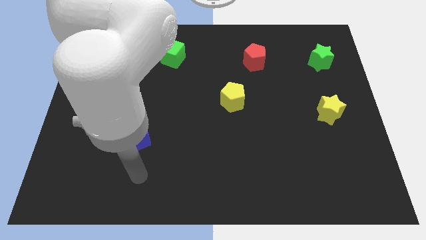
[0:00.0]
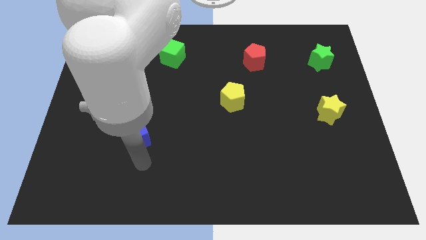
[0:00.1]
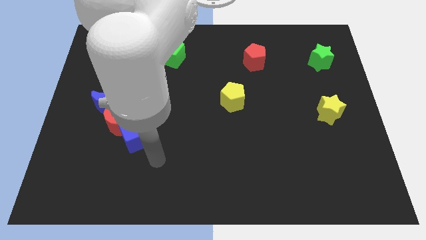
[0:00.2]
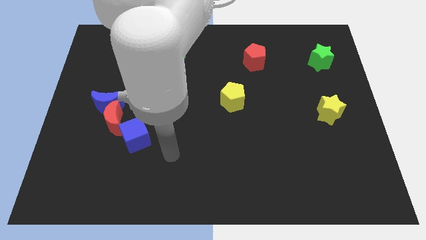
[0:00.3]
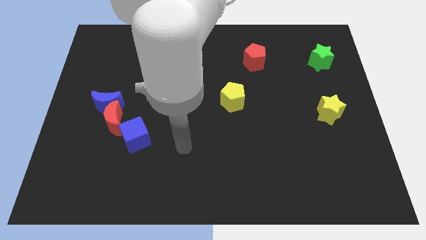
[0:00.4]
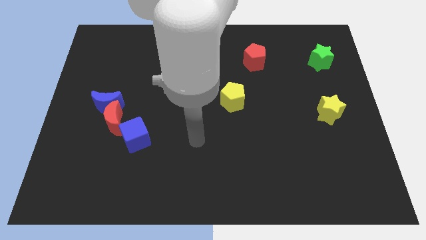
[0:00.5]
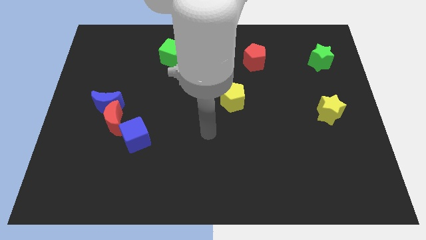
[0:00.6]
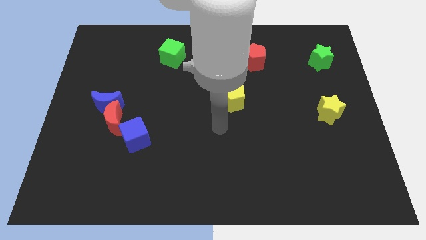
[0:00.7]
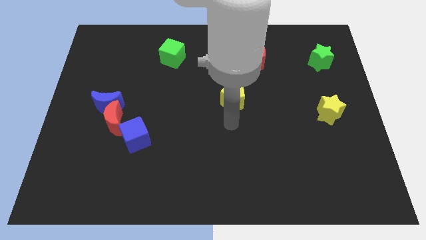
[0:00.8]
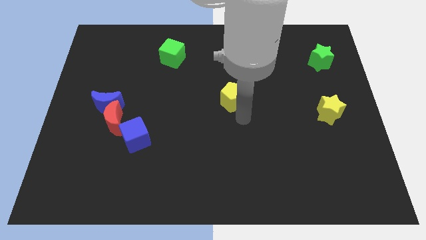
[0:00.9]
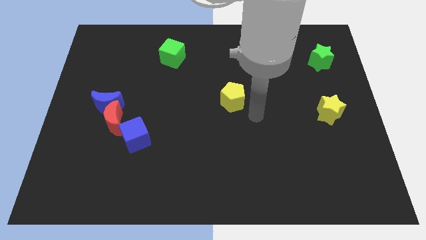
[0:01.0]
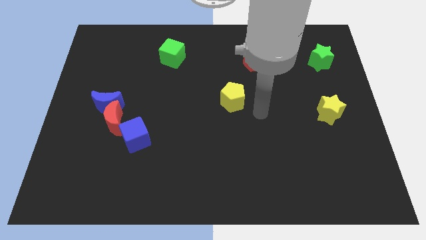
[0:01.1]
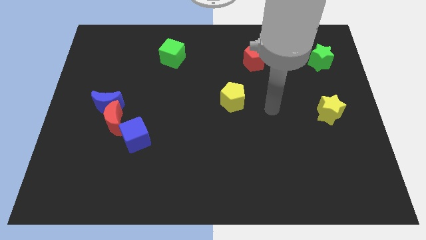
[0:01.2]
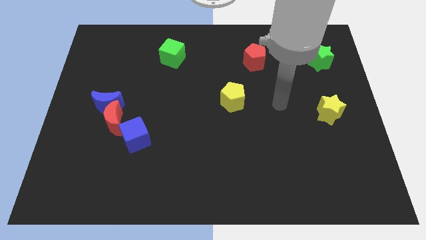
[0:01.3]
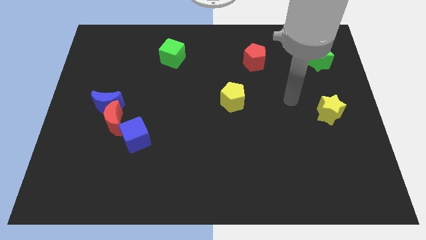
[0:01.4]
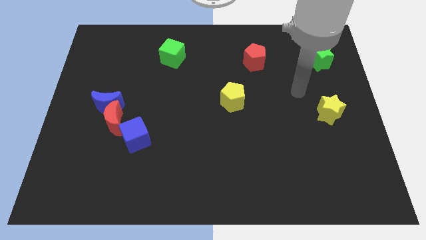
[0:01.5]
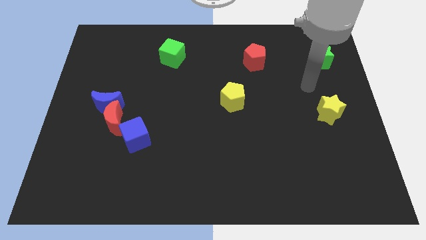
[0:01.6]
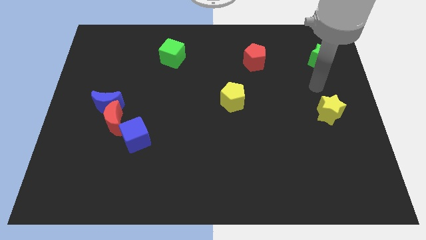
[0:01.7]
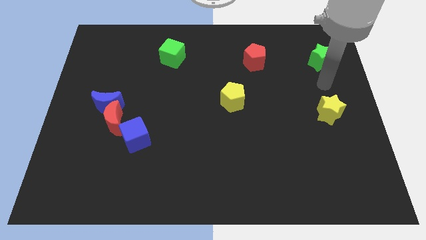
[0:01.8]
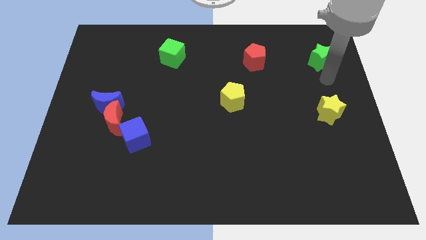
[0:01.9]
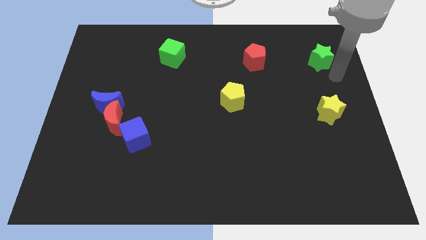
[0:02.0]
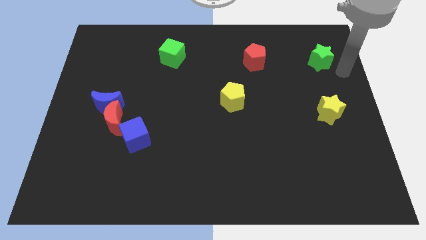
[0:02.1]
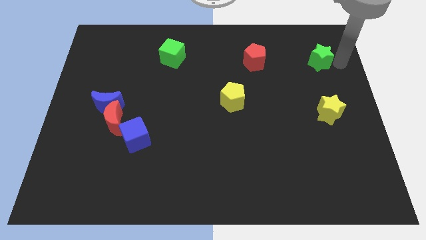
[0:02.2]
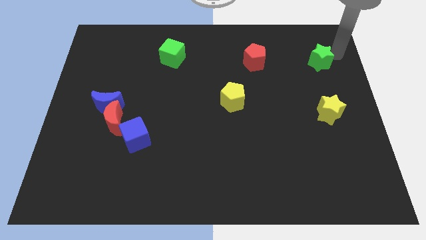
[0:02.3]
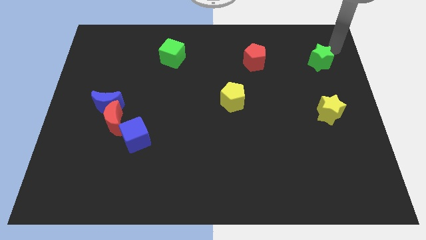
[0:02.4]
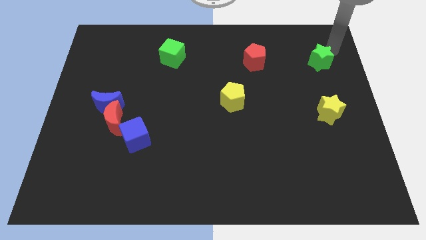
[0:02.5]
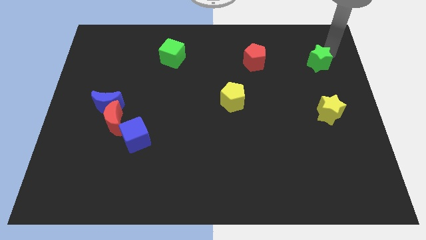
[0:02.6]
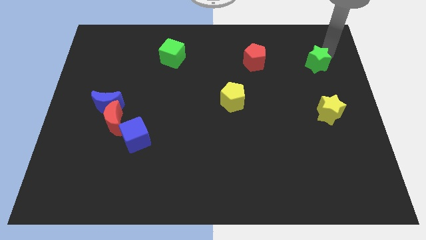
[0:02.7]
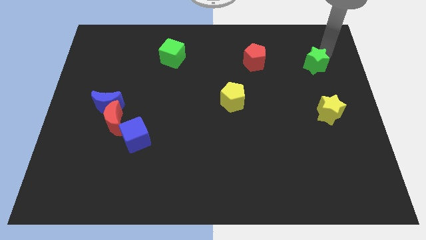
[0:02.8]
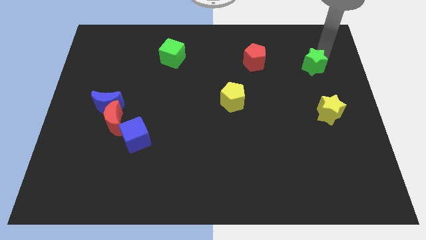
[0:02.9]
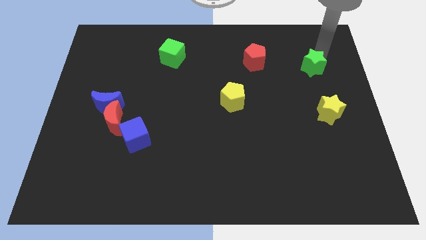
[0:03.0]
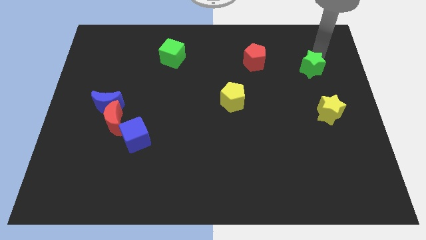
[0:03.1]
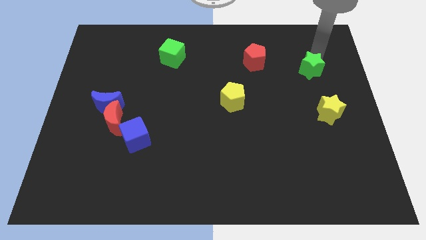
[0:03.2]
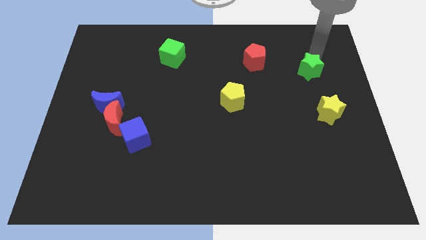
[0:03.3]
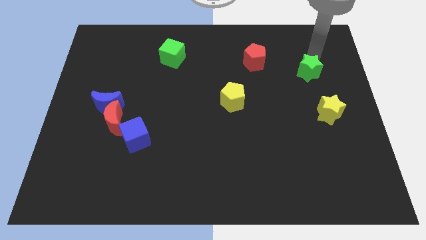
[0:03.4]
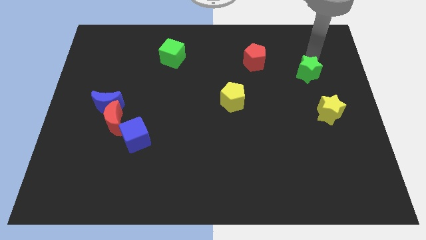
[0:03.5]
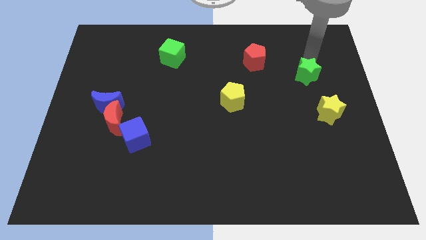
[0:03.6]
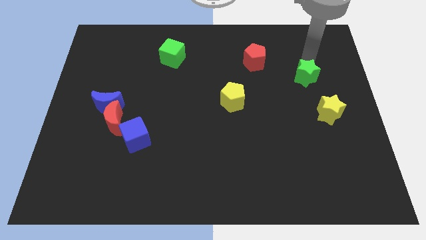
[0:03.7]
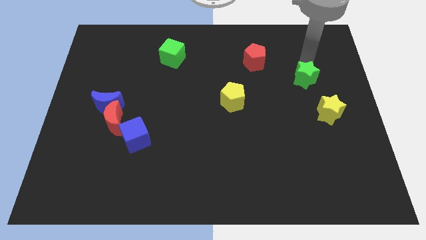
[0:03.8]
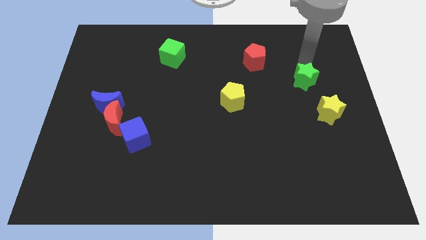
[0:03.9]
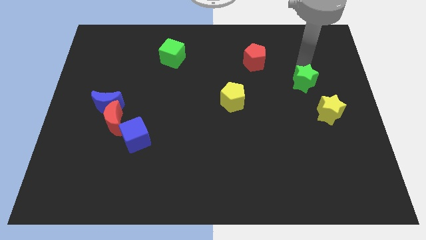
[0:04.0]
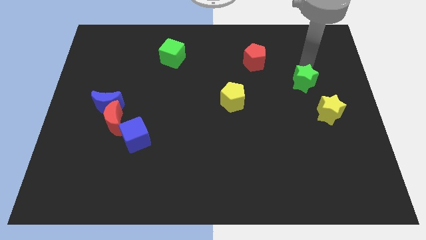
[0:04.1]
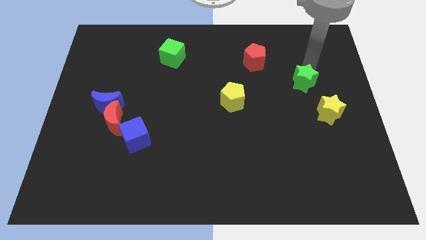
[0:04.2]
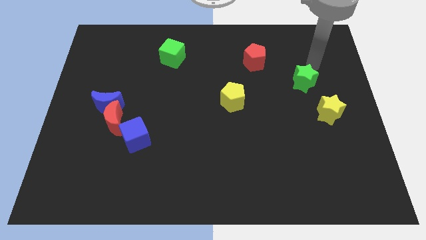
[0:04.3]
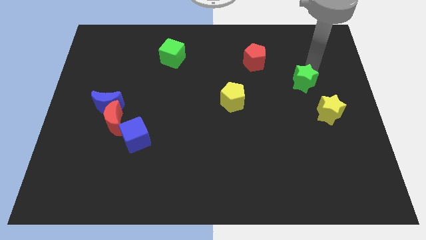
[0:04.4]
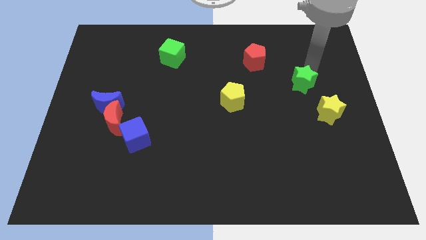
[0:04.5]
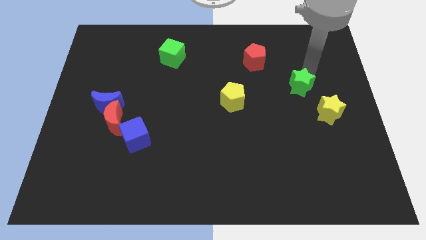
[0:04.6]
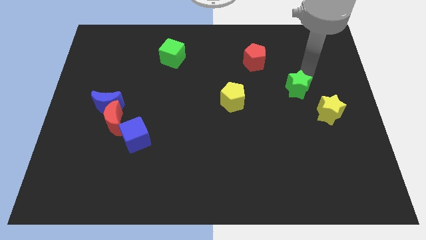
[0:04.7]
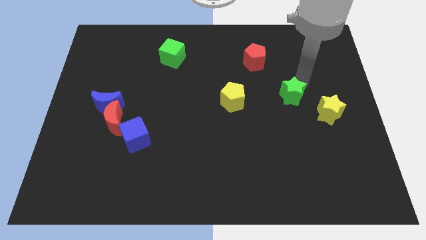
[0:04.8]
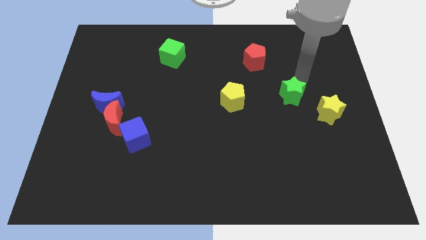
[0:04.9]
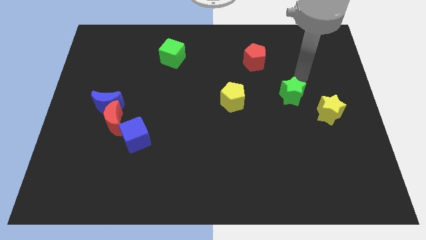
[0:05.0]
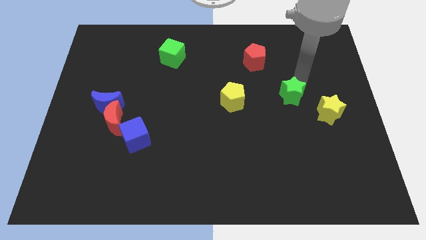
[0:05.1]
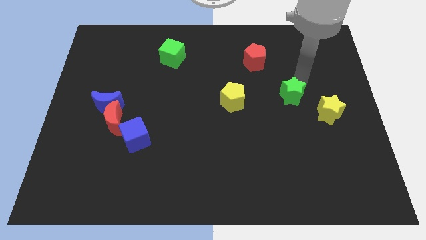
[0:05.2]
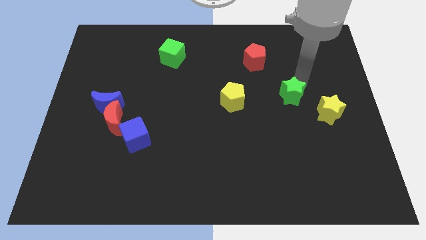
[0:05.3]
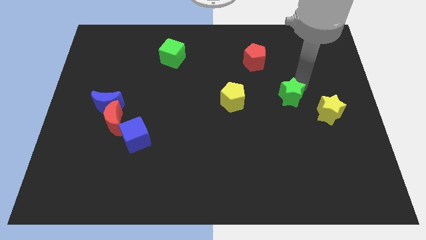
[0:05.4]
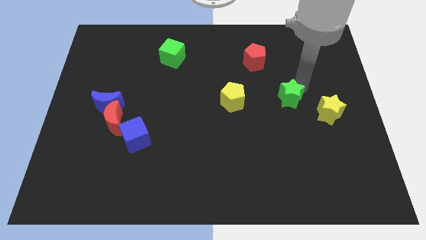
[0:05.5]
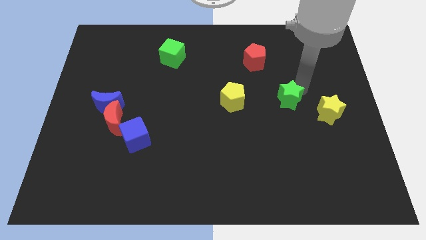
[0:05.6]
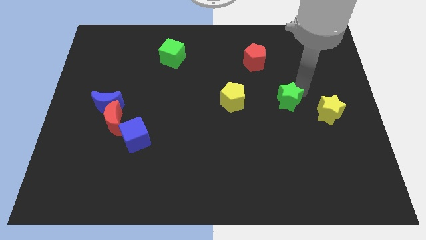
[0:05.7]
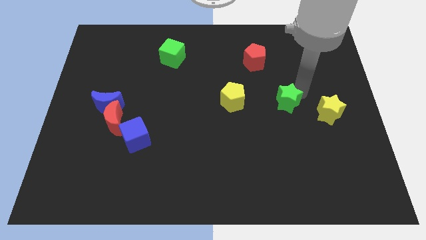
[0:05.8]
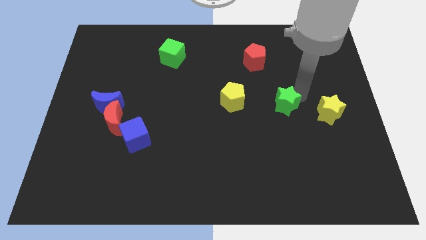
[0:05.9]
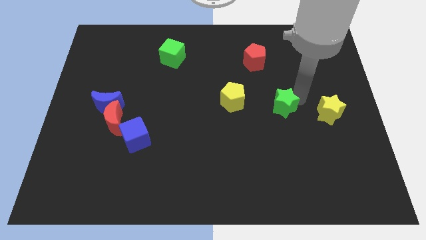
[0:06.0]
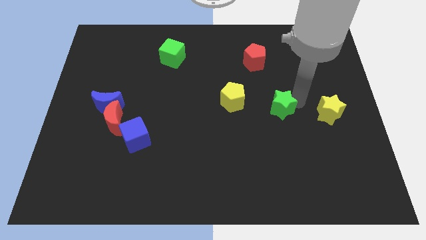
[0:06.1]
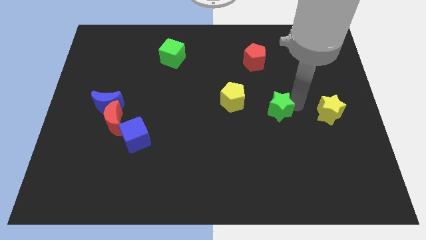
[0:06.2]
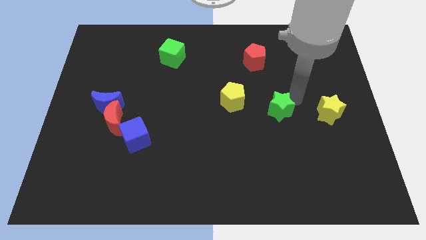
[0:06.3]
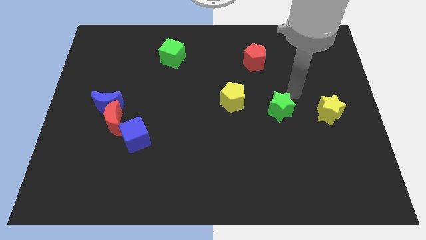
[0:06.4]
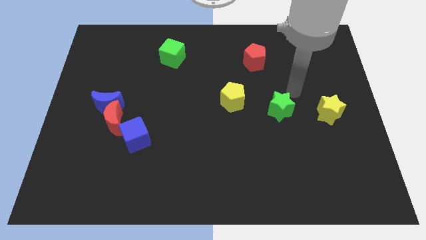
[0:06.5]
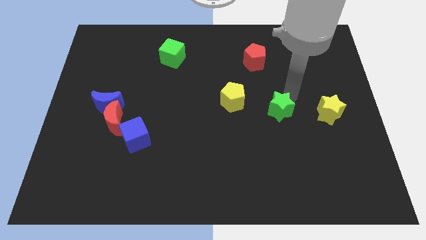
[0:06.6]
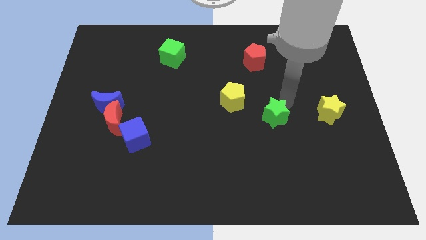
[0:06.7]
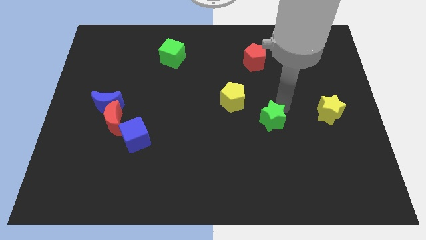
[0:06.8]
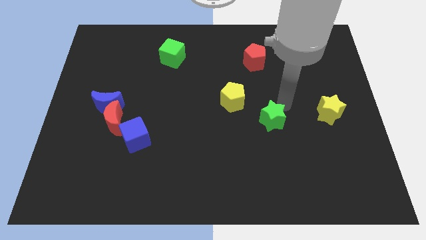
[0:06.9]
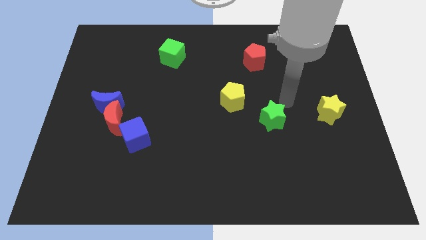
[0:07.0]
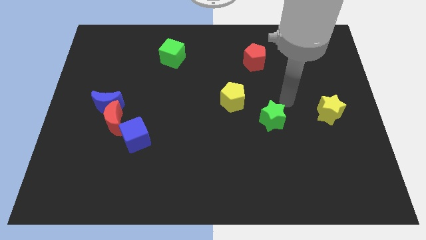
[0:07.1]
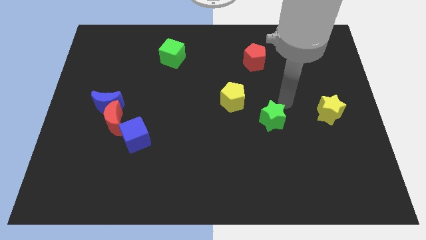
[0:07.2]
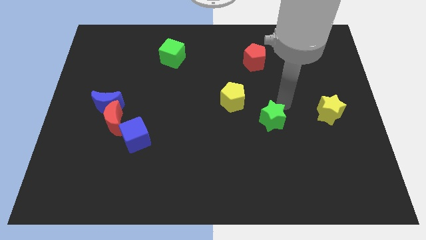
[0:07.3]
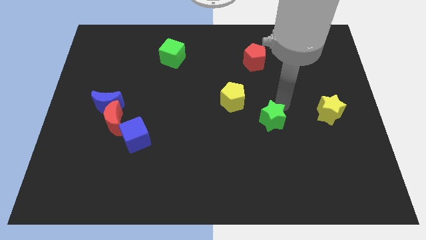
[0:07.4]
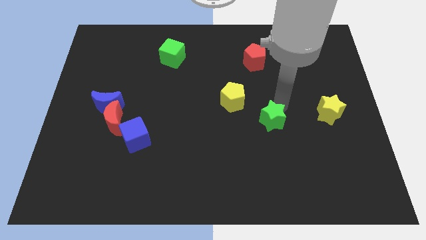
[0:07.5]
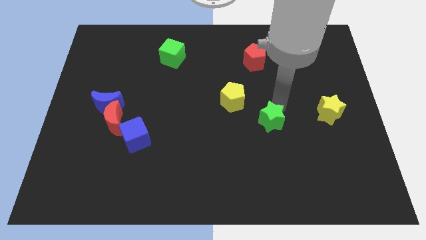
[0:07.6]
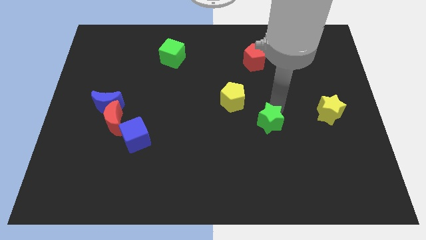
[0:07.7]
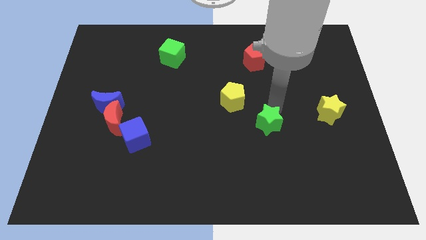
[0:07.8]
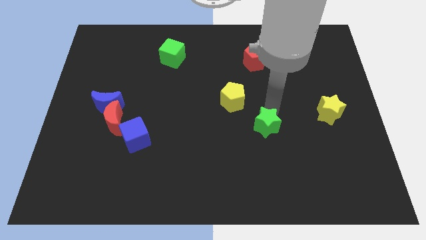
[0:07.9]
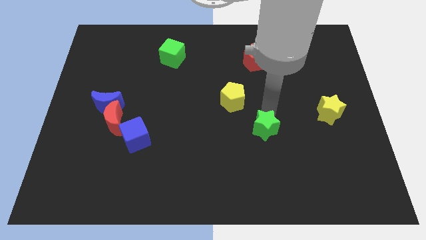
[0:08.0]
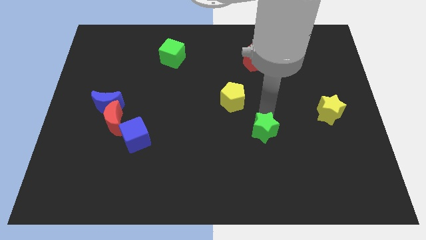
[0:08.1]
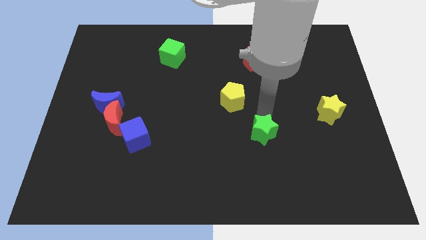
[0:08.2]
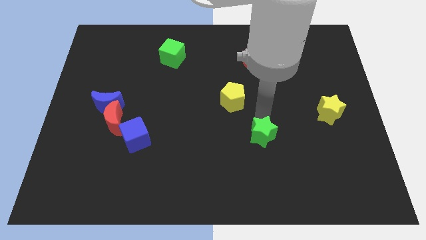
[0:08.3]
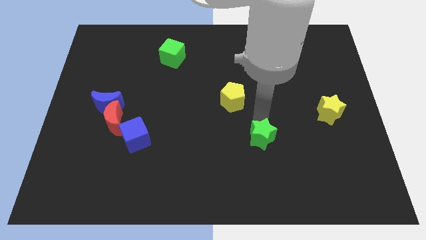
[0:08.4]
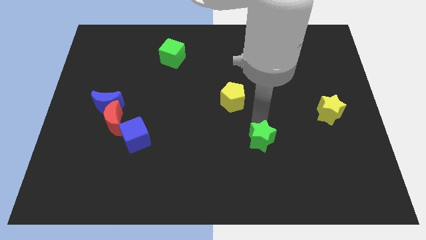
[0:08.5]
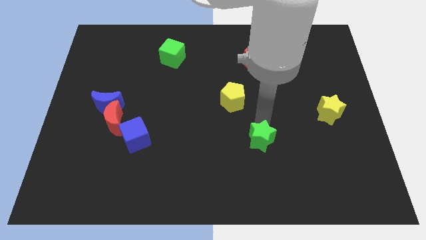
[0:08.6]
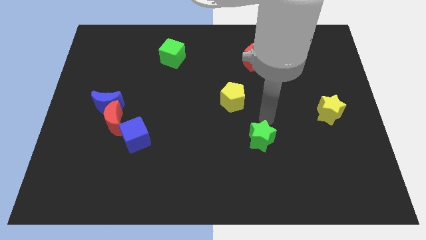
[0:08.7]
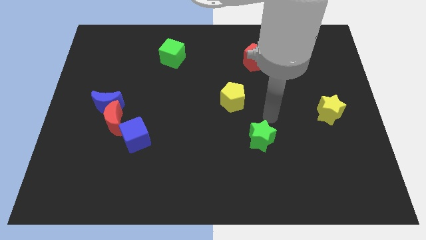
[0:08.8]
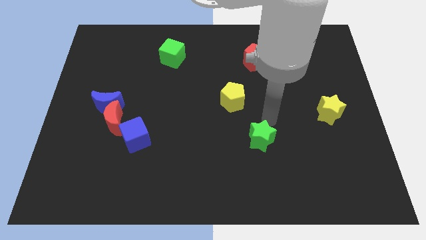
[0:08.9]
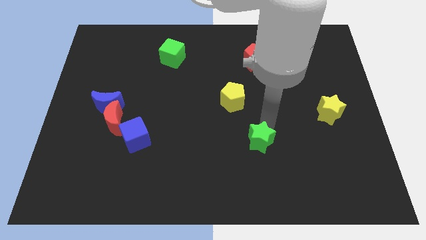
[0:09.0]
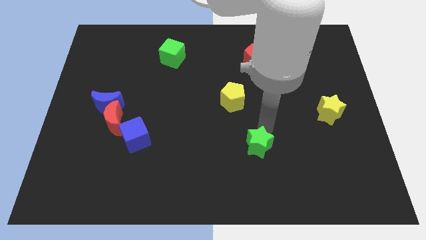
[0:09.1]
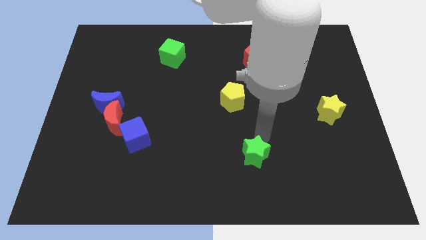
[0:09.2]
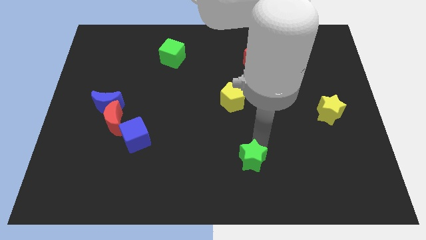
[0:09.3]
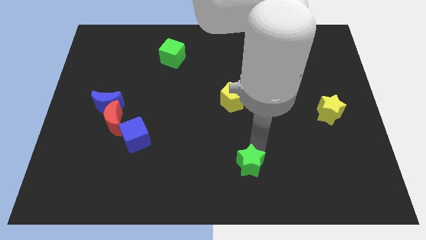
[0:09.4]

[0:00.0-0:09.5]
move the green star to the bottom
